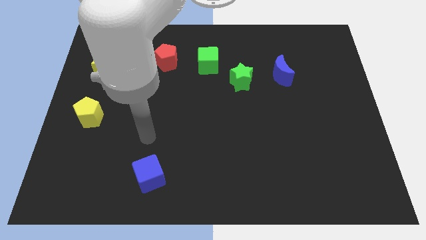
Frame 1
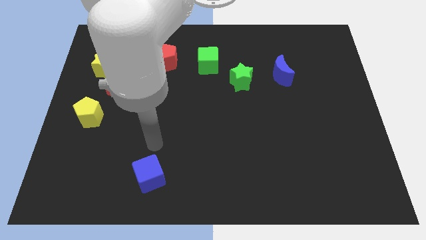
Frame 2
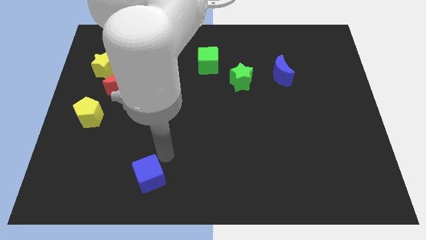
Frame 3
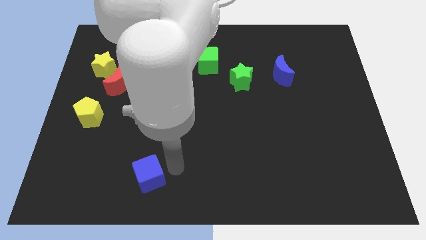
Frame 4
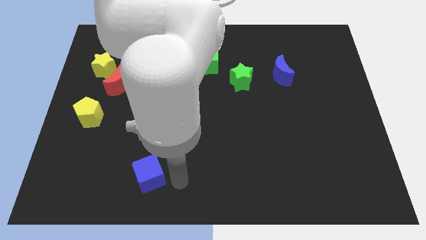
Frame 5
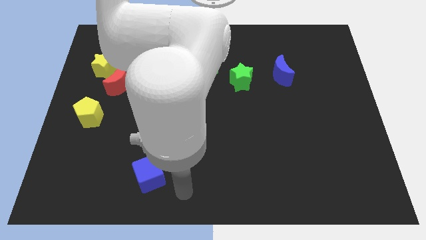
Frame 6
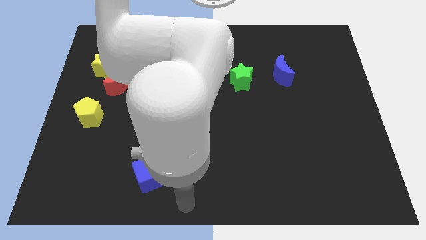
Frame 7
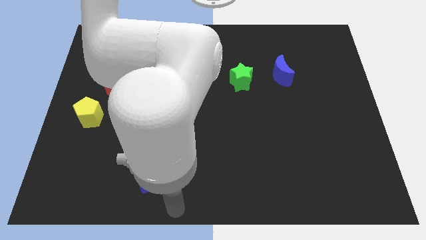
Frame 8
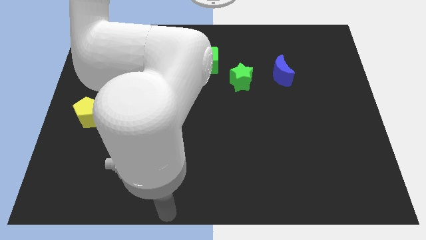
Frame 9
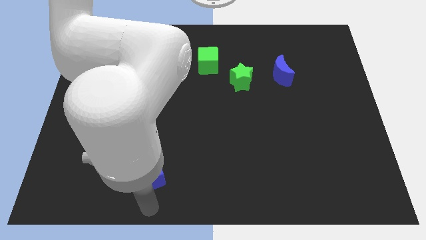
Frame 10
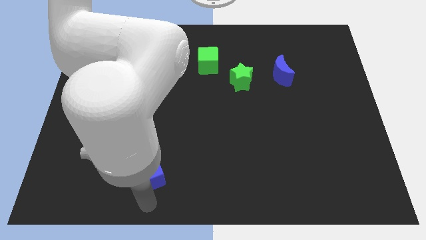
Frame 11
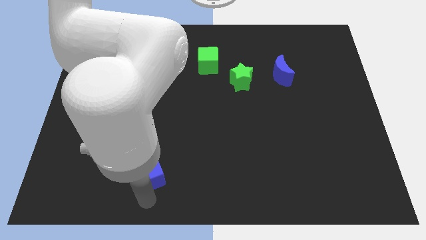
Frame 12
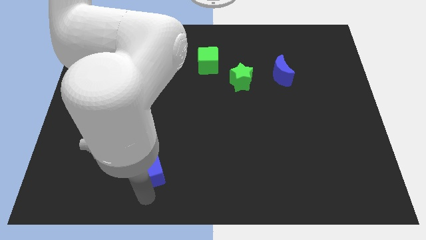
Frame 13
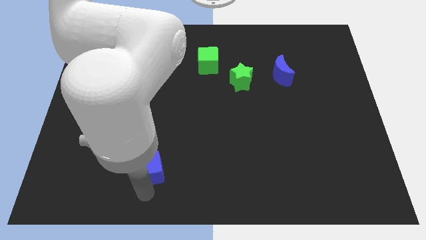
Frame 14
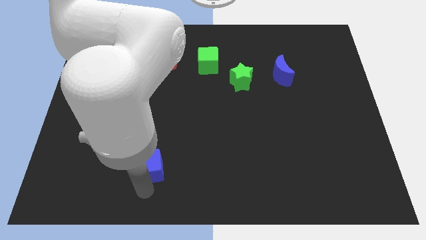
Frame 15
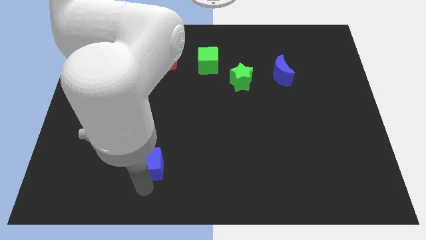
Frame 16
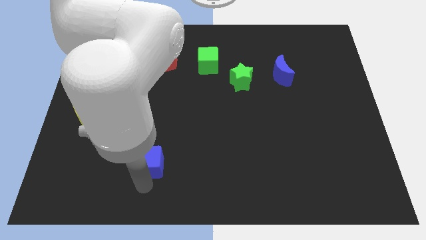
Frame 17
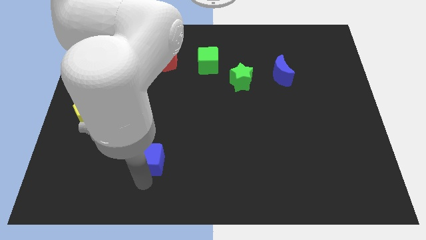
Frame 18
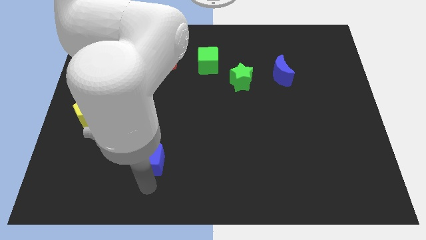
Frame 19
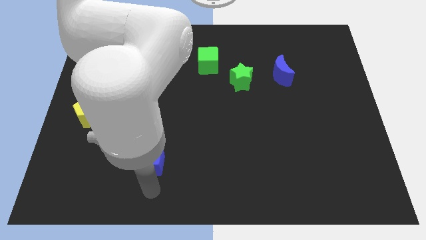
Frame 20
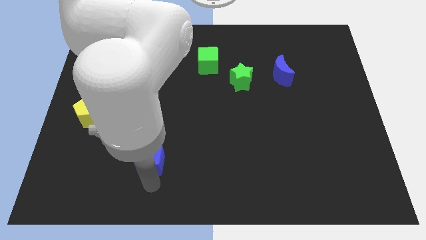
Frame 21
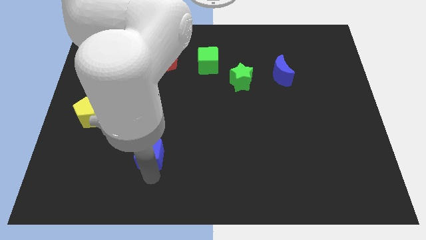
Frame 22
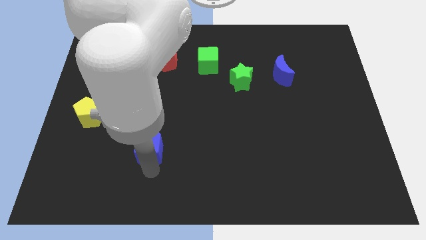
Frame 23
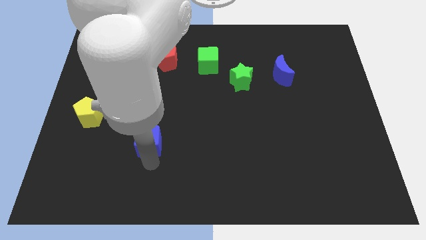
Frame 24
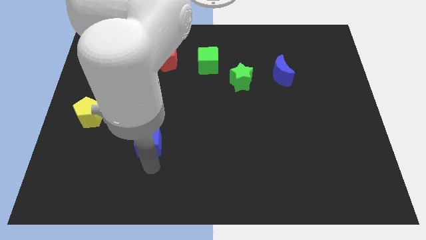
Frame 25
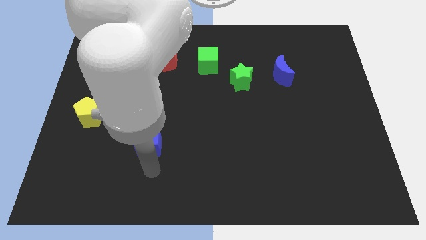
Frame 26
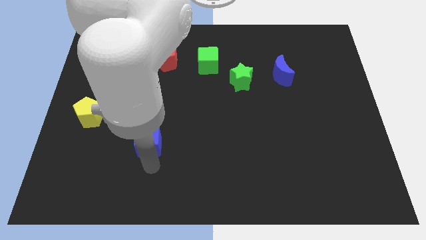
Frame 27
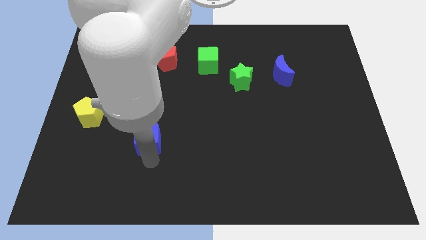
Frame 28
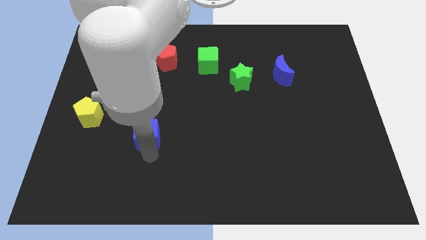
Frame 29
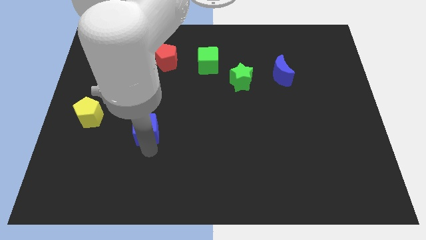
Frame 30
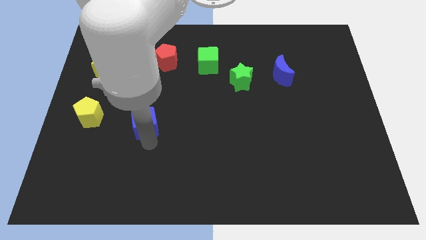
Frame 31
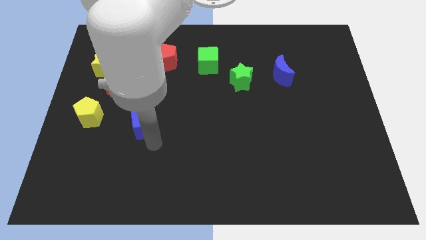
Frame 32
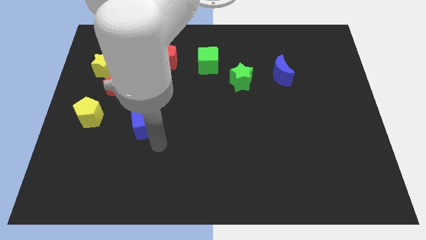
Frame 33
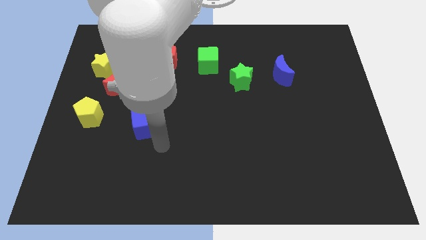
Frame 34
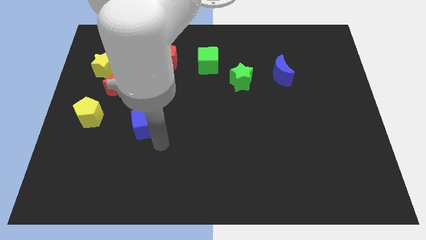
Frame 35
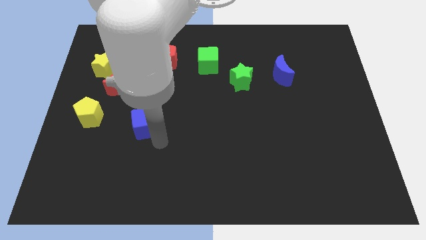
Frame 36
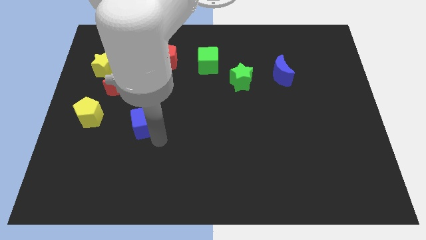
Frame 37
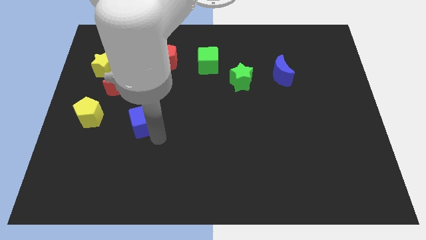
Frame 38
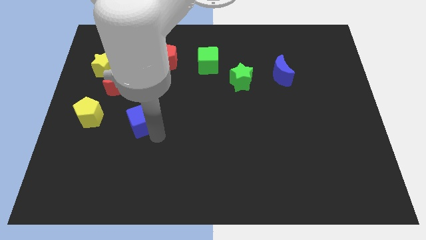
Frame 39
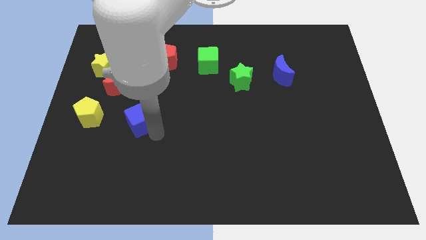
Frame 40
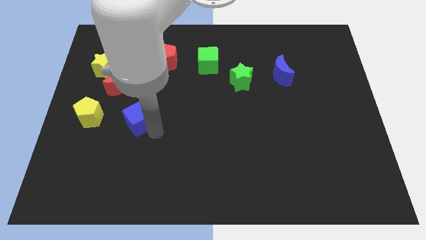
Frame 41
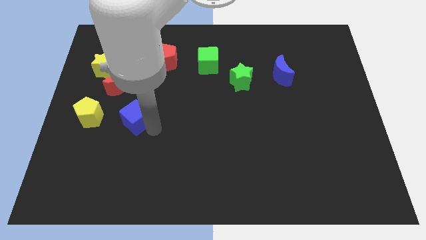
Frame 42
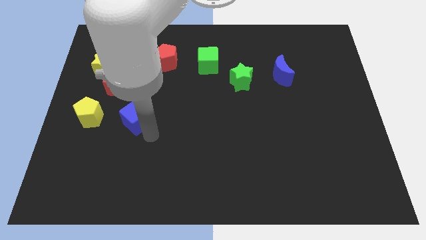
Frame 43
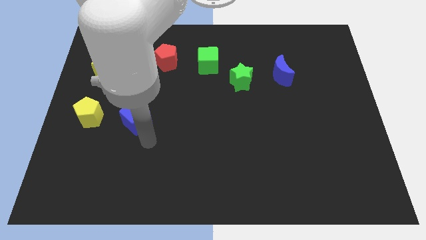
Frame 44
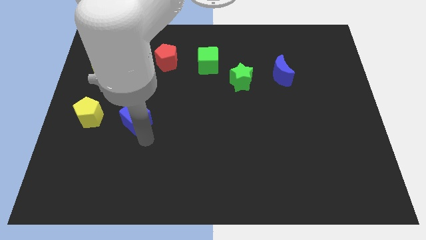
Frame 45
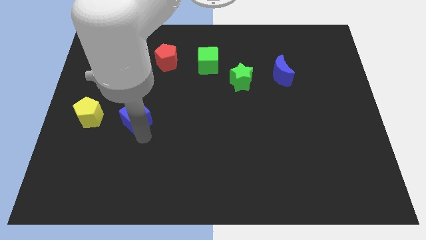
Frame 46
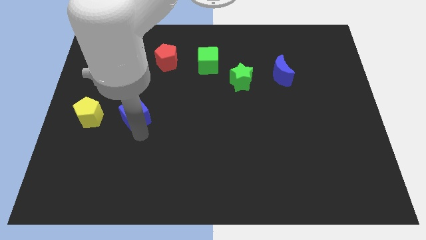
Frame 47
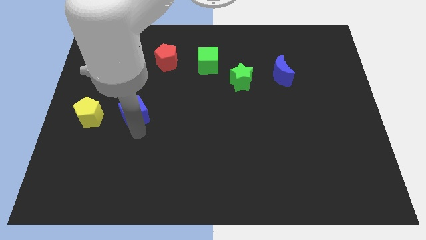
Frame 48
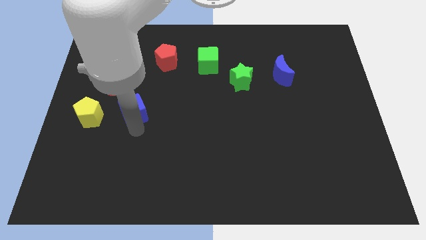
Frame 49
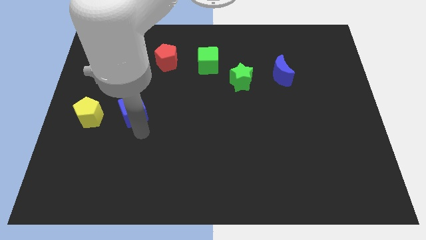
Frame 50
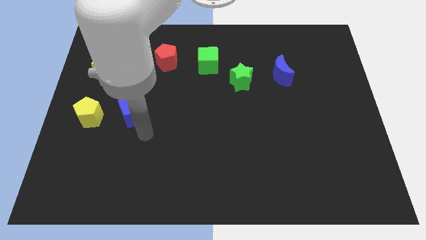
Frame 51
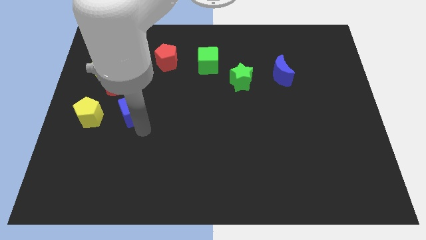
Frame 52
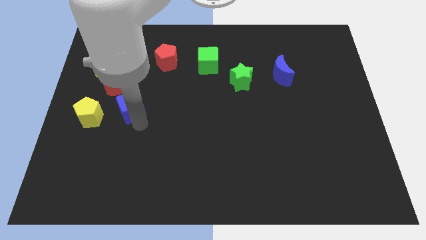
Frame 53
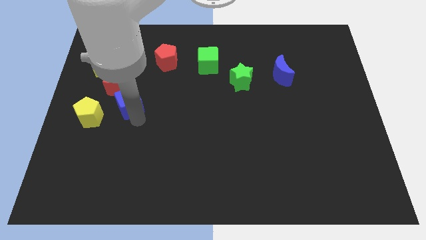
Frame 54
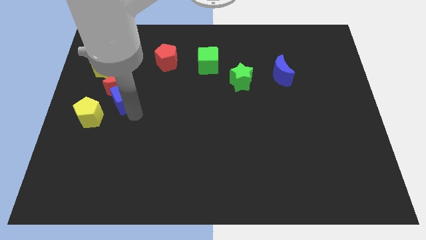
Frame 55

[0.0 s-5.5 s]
push the blue cube to the red moon

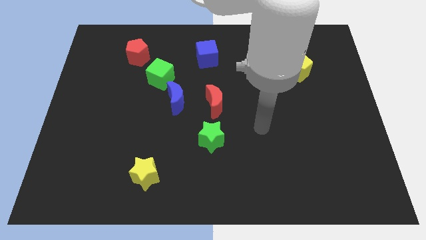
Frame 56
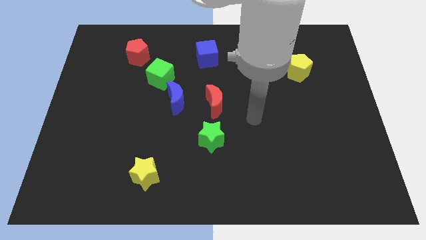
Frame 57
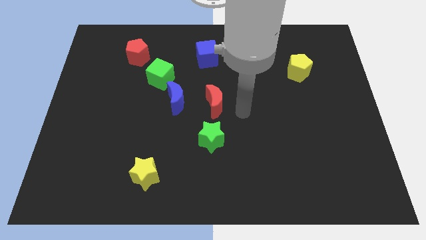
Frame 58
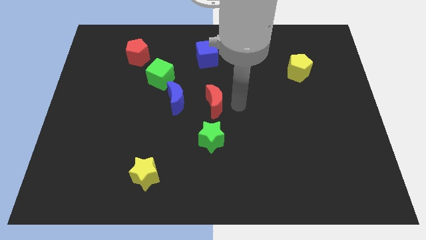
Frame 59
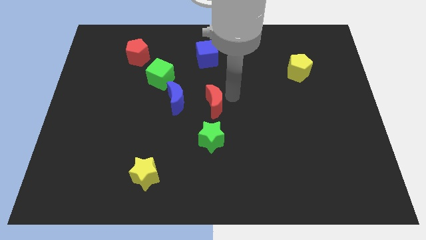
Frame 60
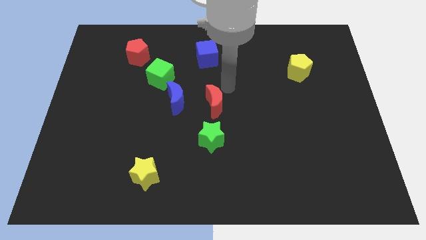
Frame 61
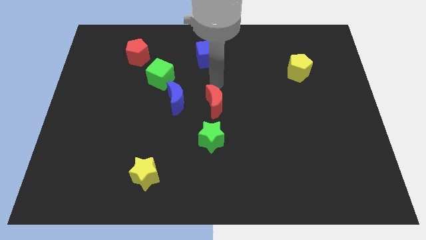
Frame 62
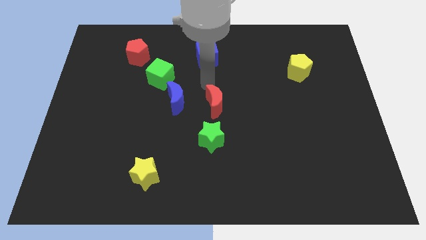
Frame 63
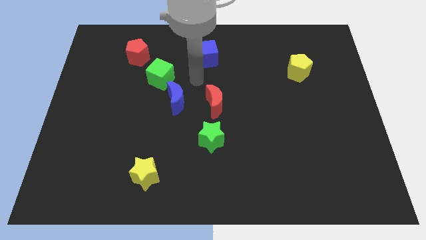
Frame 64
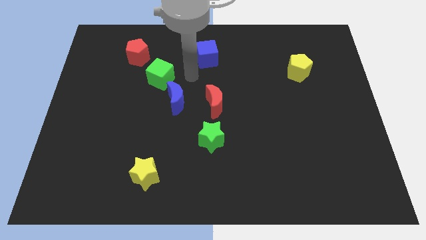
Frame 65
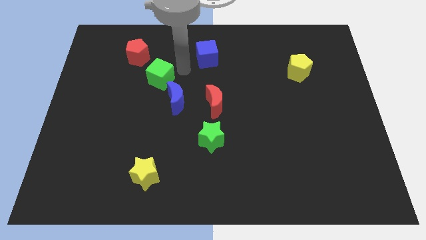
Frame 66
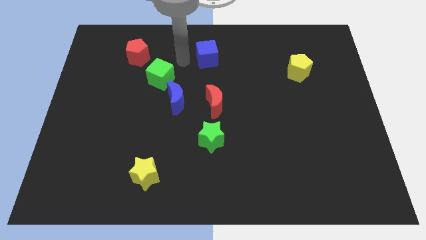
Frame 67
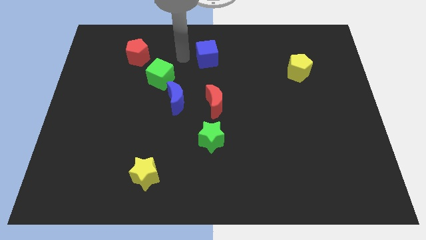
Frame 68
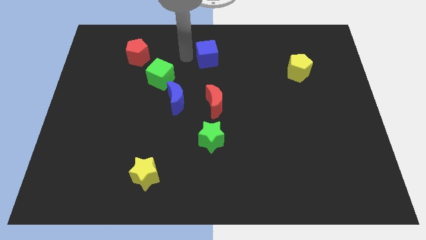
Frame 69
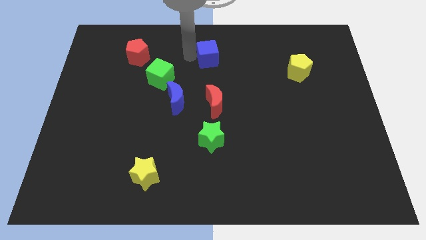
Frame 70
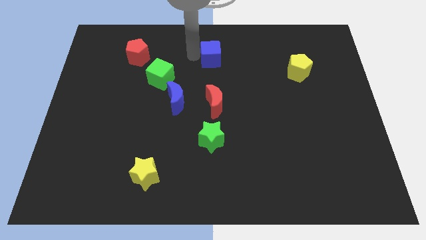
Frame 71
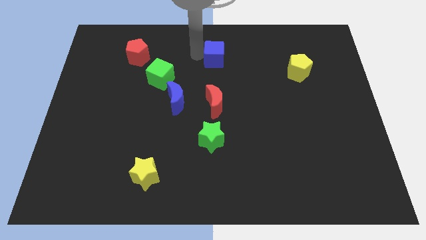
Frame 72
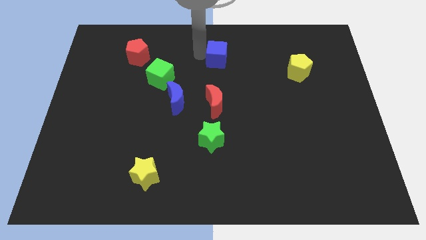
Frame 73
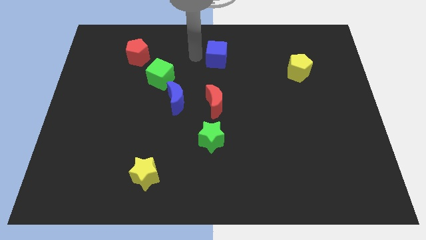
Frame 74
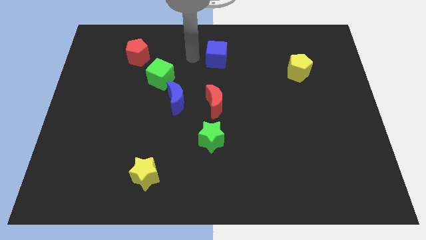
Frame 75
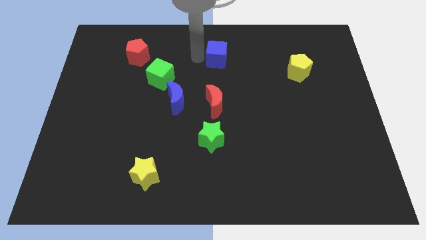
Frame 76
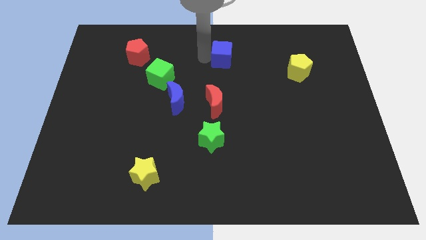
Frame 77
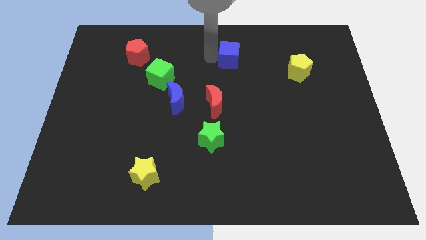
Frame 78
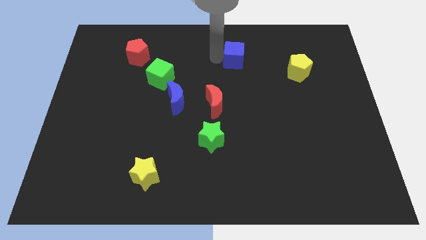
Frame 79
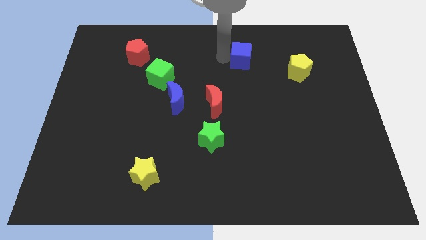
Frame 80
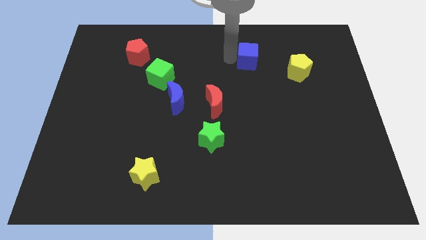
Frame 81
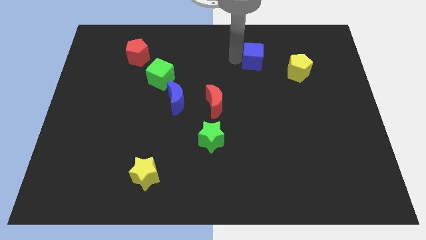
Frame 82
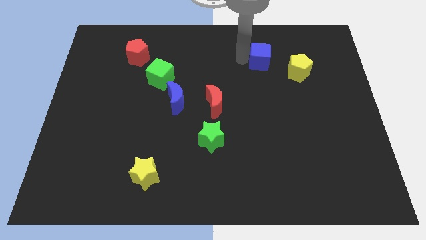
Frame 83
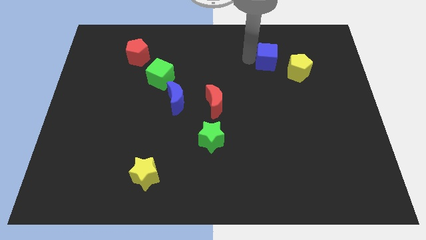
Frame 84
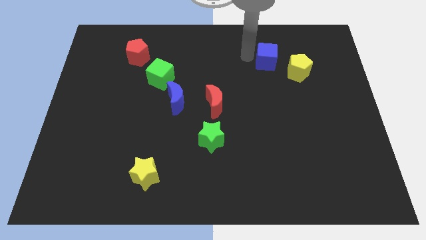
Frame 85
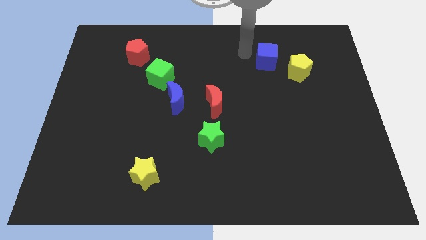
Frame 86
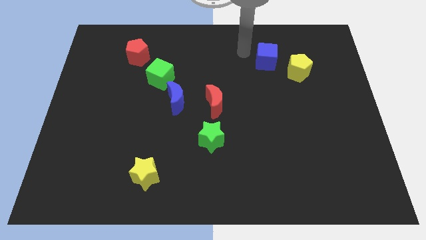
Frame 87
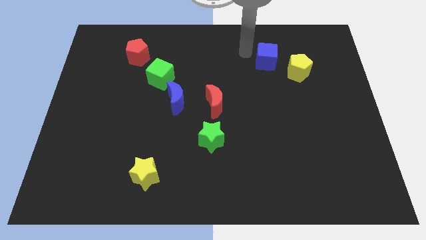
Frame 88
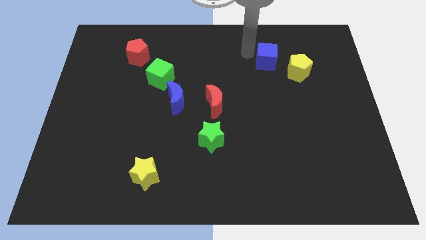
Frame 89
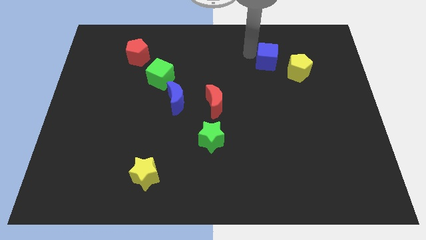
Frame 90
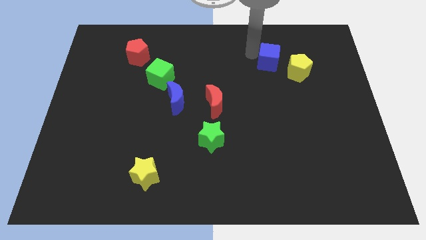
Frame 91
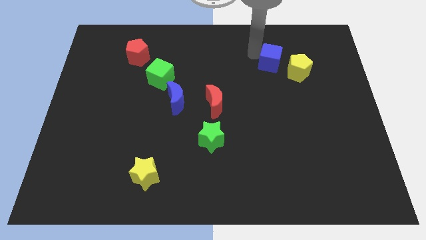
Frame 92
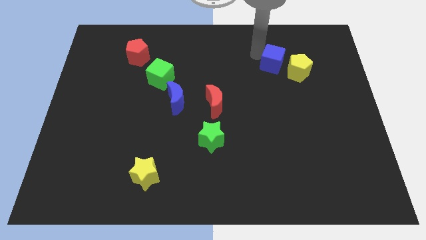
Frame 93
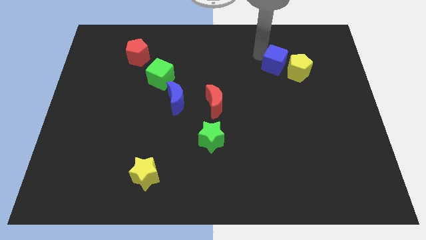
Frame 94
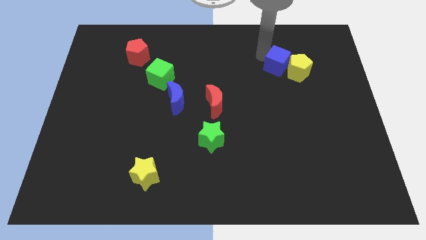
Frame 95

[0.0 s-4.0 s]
slide the blue cube to the yellow pentagon
